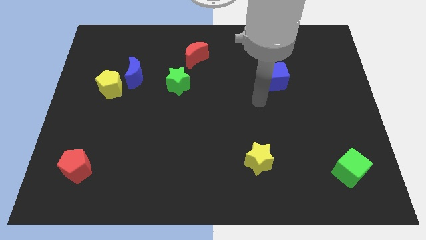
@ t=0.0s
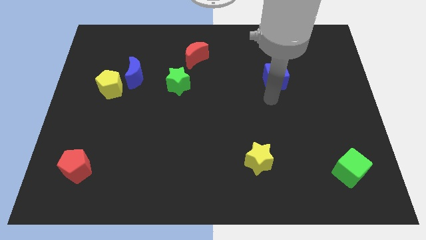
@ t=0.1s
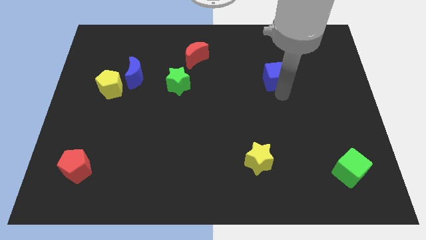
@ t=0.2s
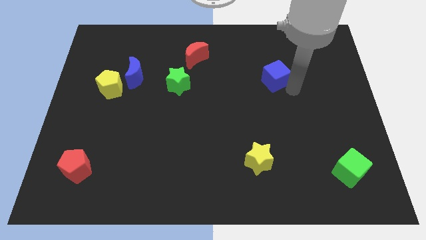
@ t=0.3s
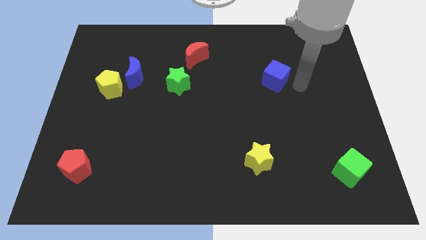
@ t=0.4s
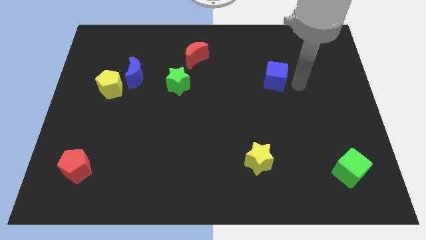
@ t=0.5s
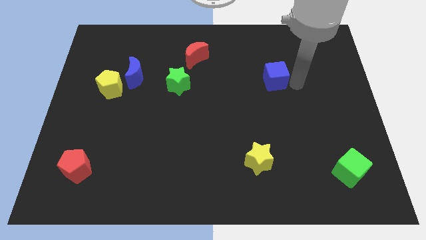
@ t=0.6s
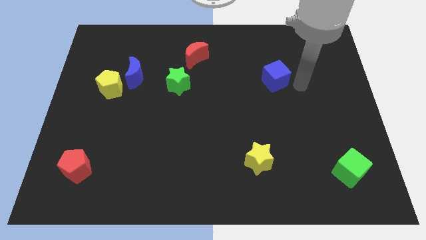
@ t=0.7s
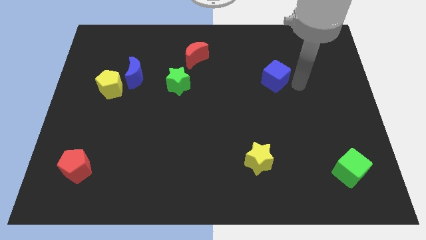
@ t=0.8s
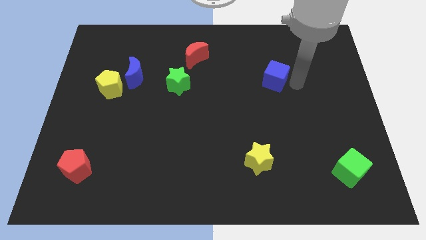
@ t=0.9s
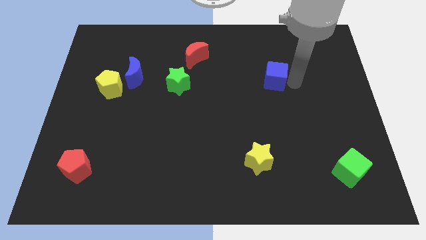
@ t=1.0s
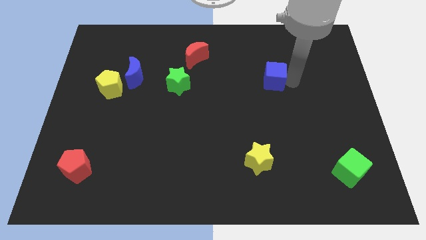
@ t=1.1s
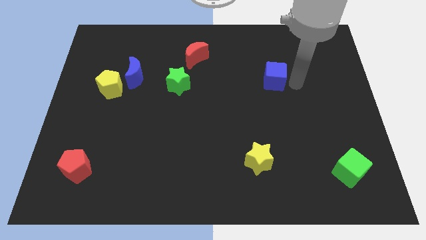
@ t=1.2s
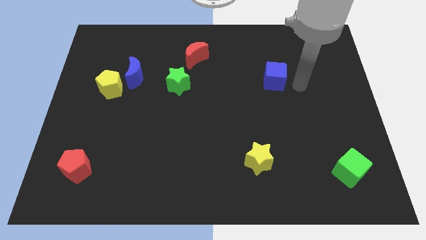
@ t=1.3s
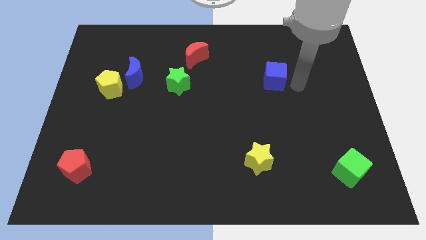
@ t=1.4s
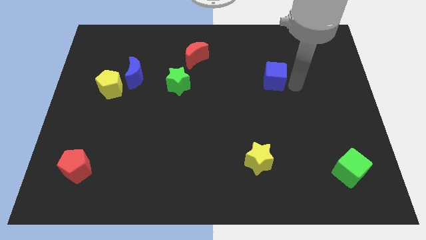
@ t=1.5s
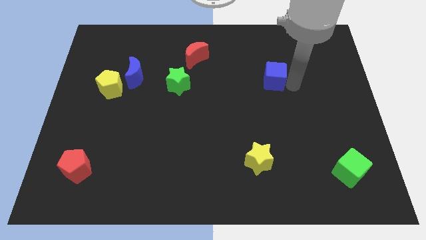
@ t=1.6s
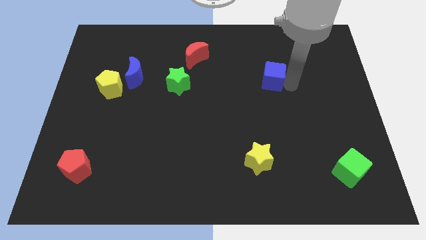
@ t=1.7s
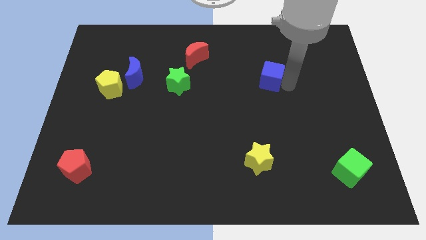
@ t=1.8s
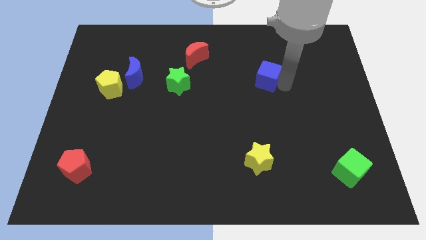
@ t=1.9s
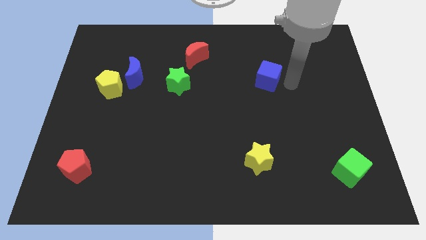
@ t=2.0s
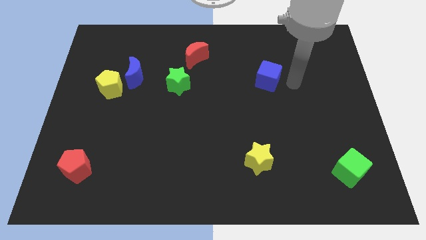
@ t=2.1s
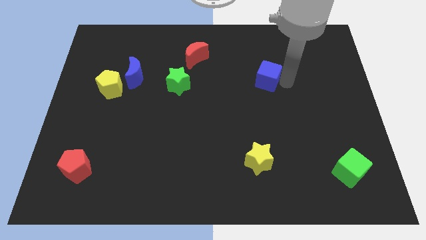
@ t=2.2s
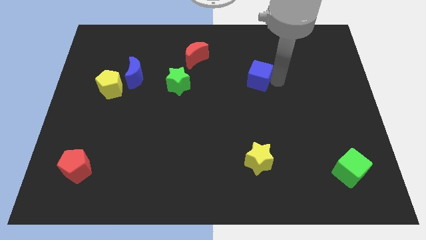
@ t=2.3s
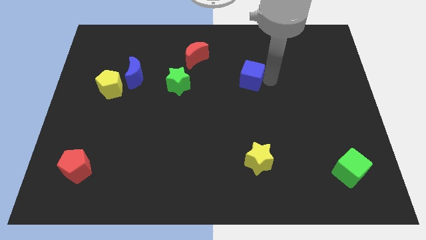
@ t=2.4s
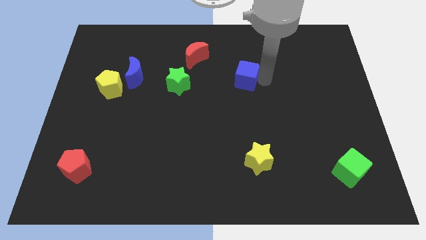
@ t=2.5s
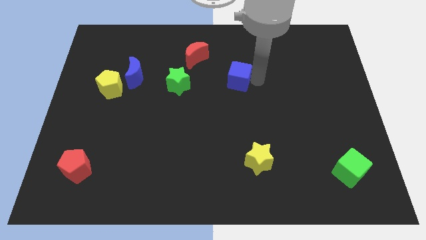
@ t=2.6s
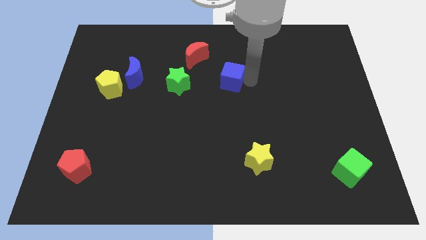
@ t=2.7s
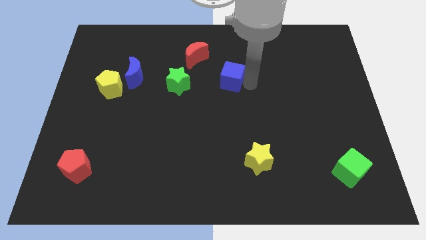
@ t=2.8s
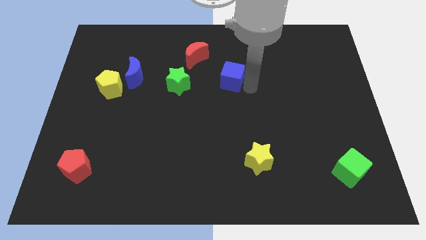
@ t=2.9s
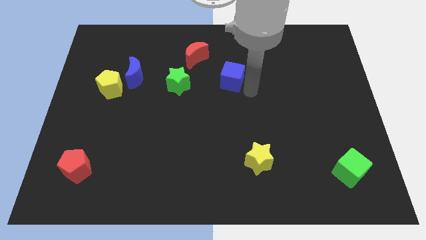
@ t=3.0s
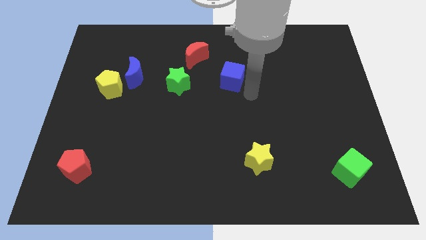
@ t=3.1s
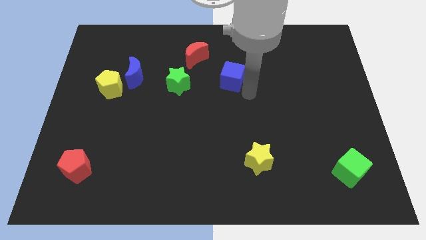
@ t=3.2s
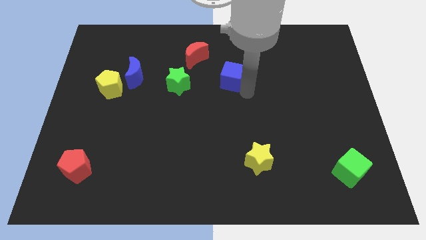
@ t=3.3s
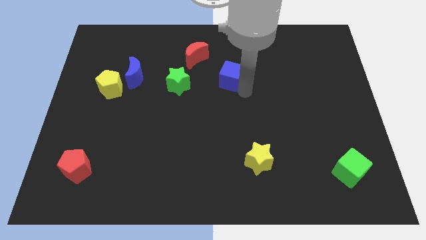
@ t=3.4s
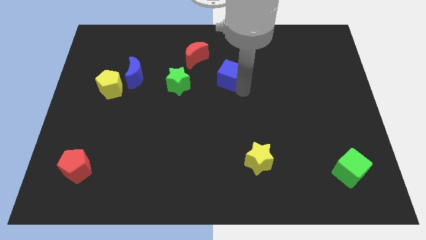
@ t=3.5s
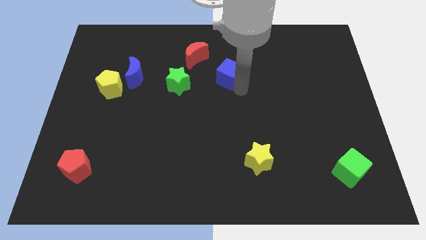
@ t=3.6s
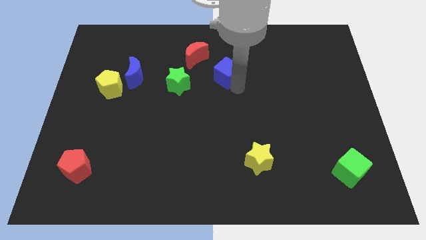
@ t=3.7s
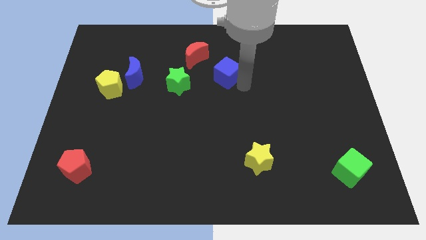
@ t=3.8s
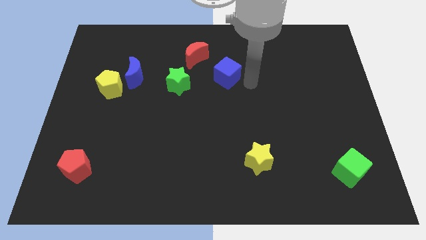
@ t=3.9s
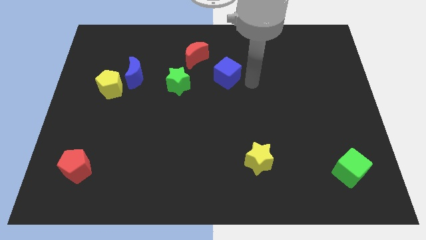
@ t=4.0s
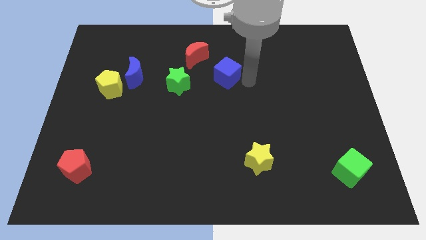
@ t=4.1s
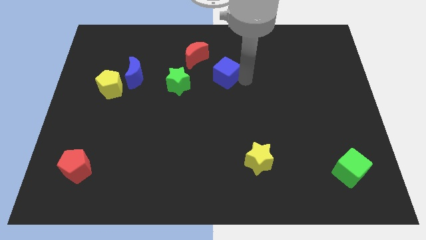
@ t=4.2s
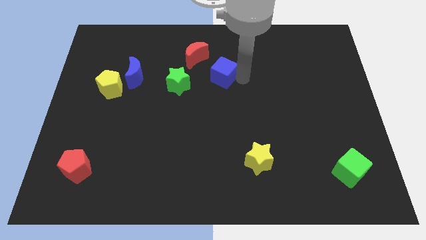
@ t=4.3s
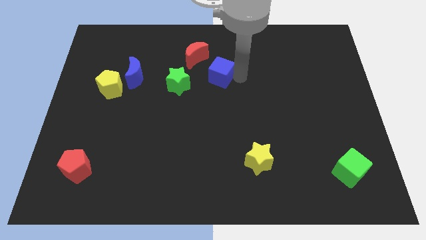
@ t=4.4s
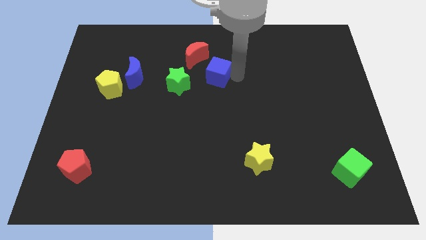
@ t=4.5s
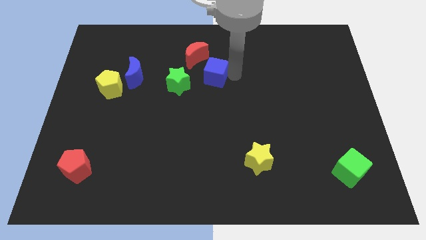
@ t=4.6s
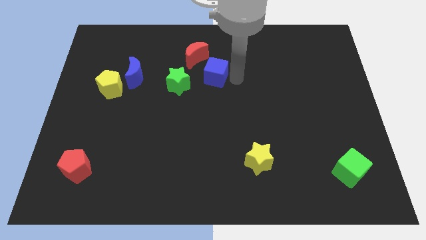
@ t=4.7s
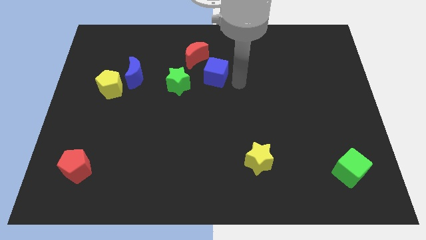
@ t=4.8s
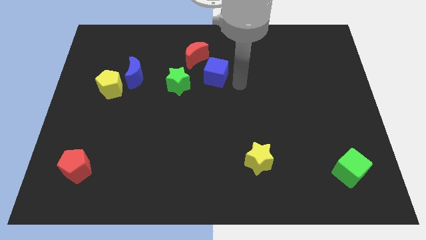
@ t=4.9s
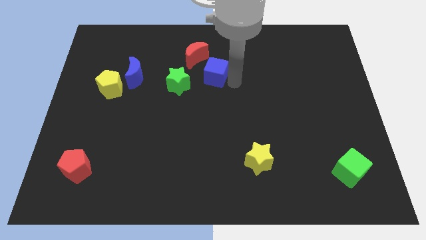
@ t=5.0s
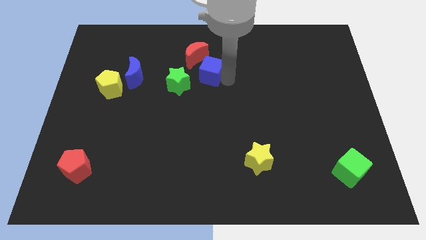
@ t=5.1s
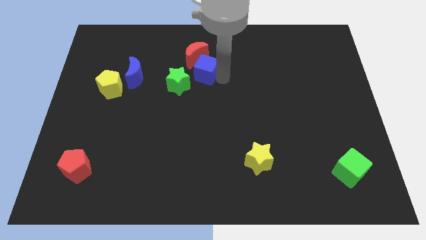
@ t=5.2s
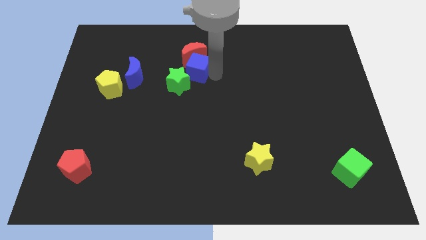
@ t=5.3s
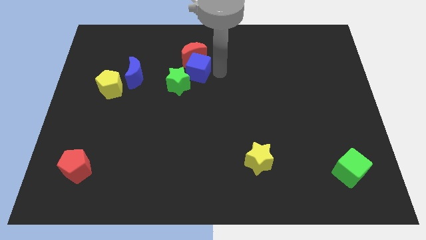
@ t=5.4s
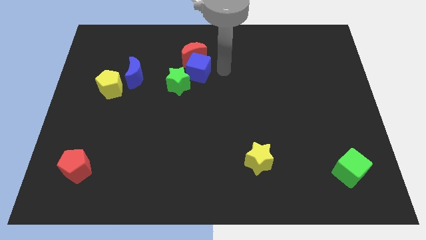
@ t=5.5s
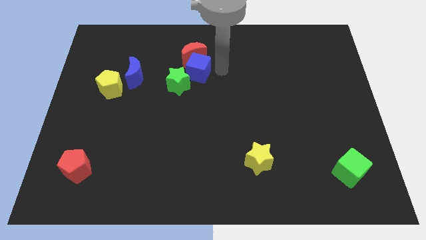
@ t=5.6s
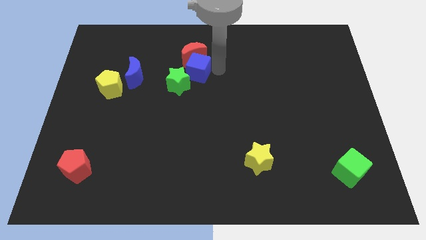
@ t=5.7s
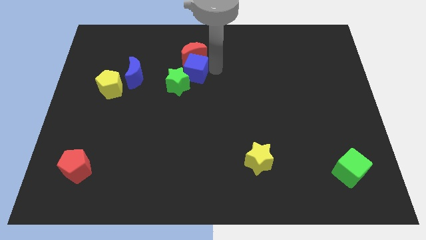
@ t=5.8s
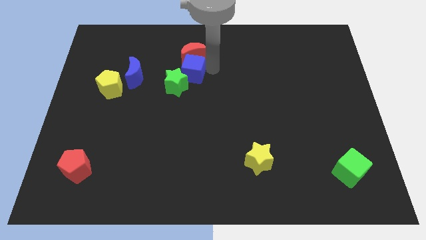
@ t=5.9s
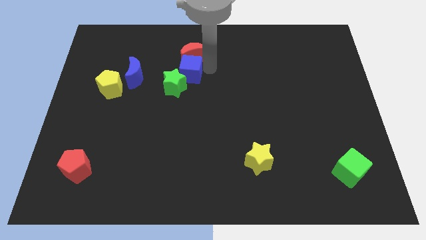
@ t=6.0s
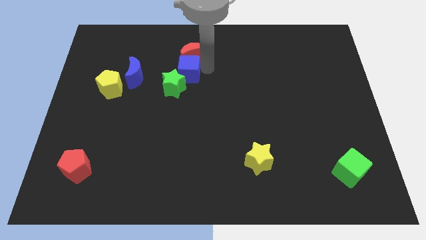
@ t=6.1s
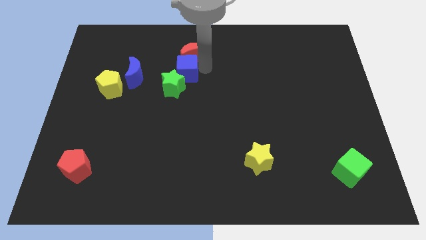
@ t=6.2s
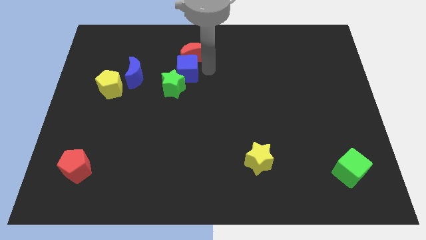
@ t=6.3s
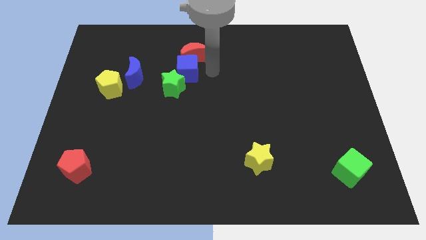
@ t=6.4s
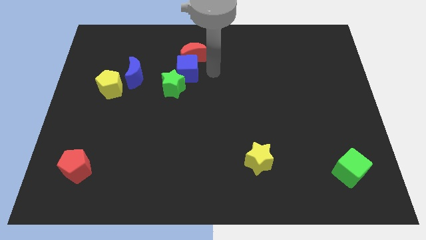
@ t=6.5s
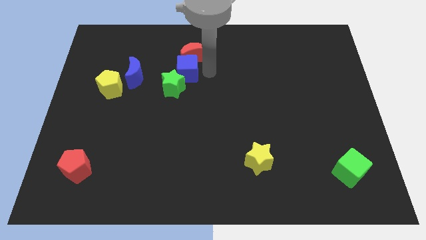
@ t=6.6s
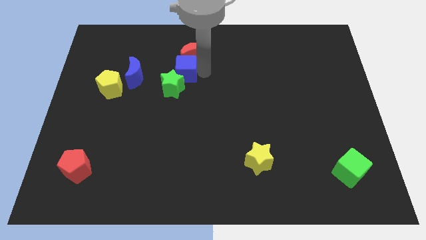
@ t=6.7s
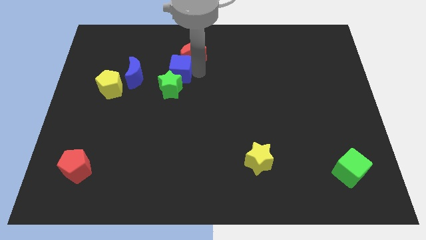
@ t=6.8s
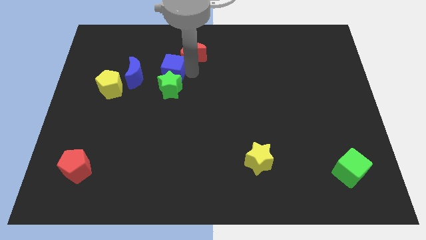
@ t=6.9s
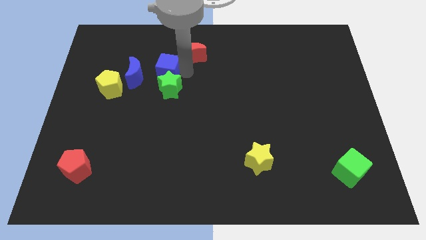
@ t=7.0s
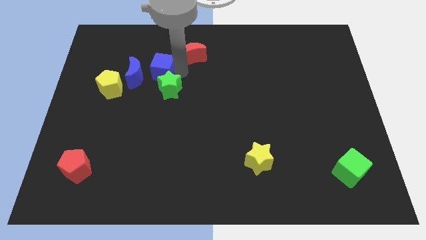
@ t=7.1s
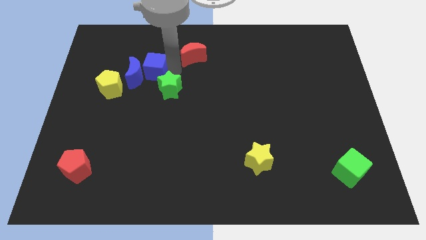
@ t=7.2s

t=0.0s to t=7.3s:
slide the blue cube next to the blue moon

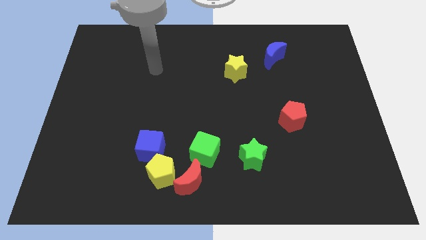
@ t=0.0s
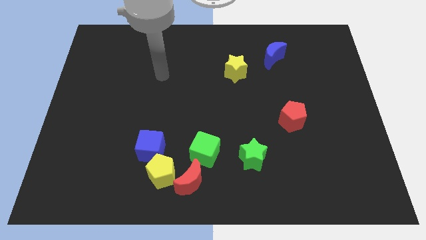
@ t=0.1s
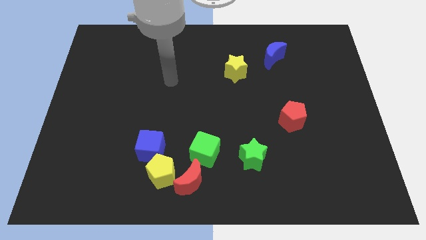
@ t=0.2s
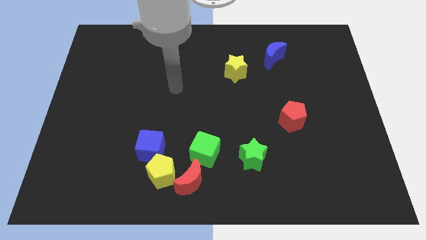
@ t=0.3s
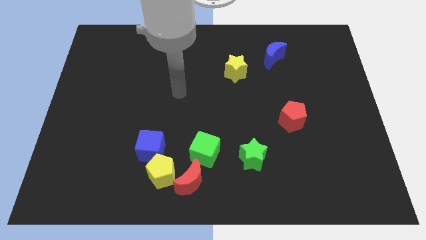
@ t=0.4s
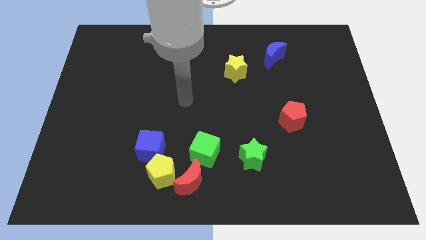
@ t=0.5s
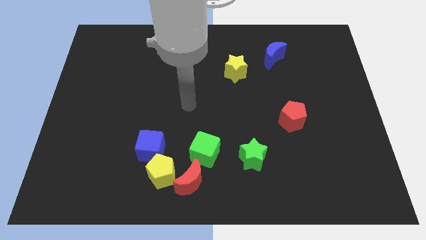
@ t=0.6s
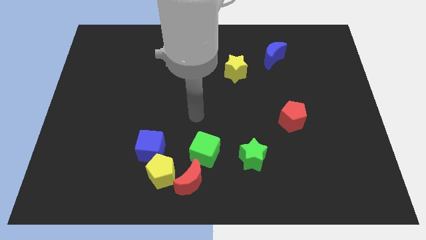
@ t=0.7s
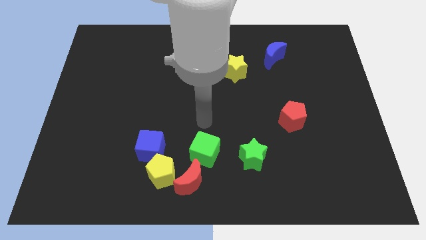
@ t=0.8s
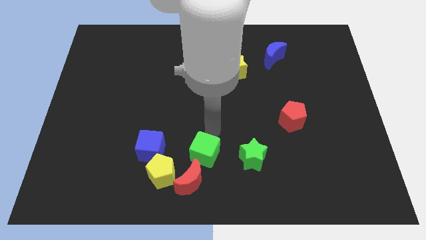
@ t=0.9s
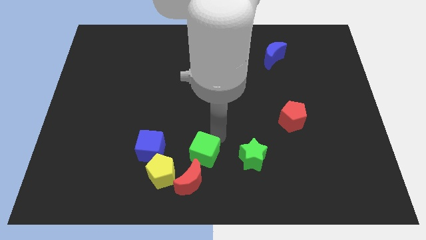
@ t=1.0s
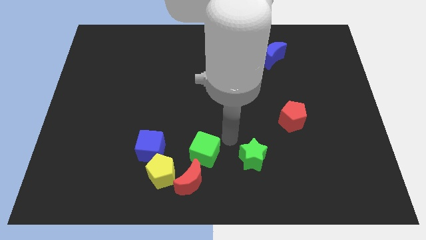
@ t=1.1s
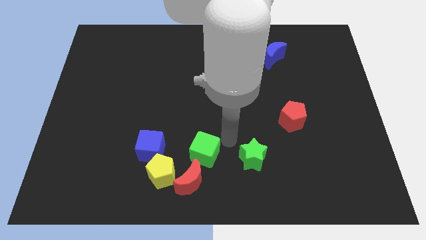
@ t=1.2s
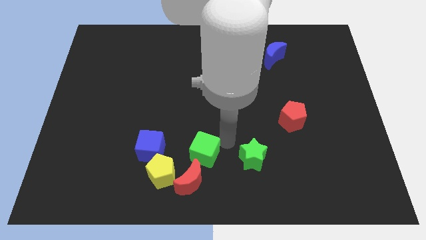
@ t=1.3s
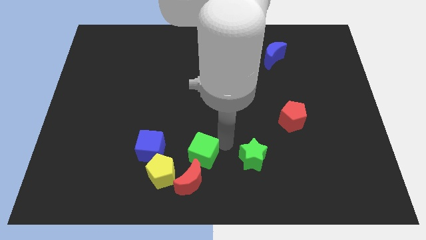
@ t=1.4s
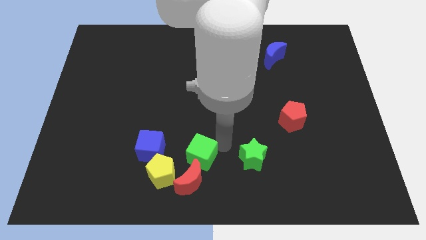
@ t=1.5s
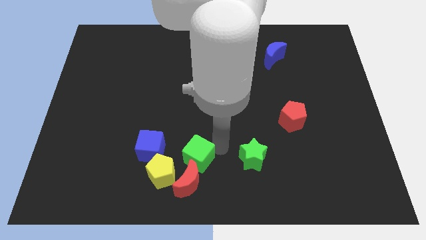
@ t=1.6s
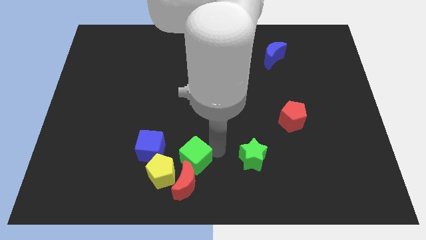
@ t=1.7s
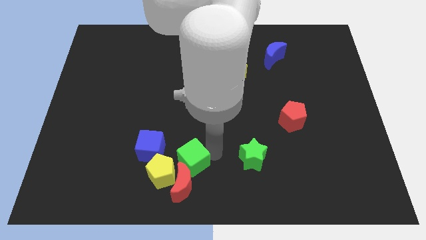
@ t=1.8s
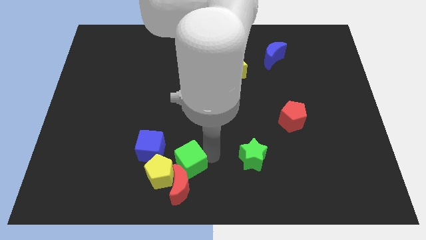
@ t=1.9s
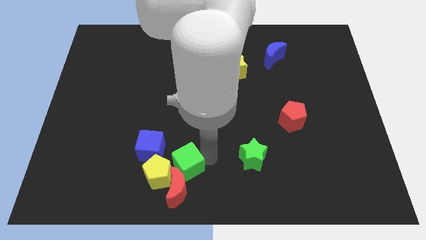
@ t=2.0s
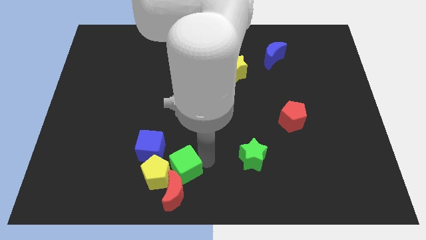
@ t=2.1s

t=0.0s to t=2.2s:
push the green cube close to the yellow pentagon
